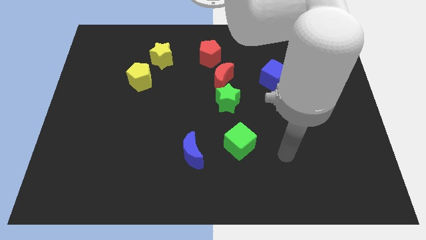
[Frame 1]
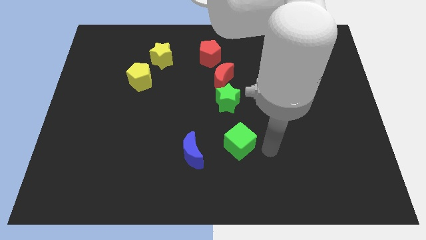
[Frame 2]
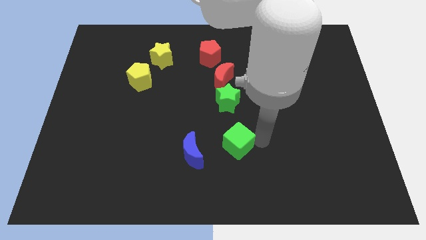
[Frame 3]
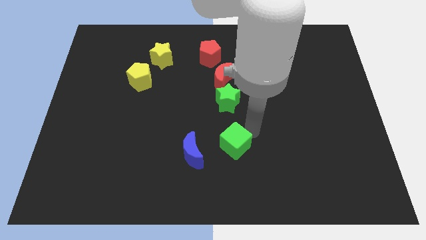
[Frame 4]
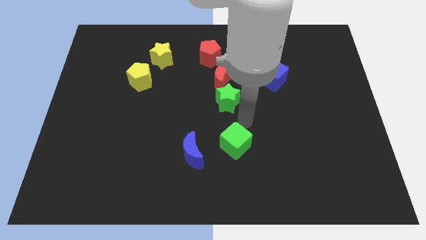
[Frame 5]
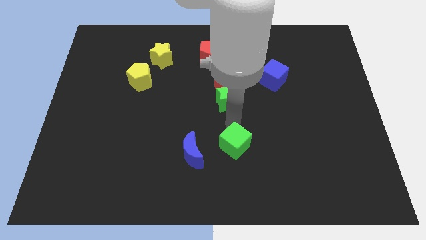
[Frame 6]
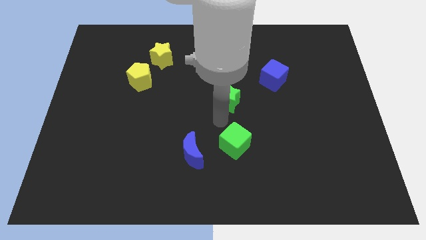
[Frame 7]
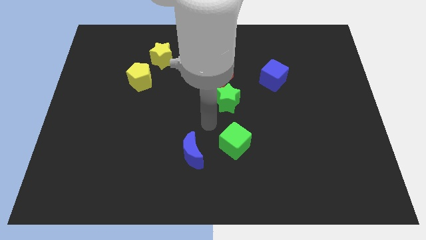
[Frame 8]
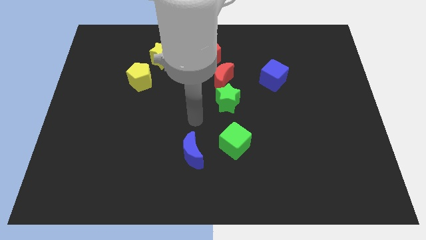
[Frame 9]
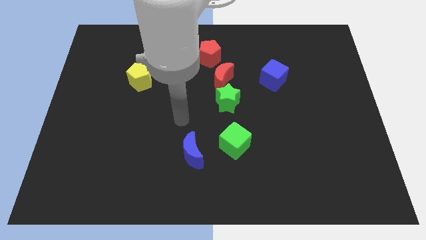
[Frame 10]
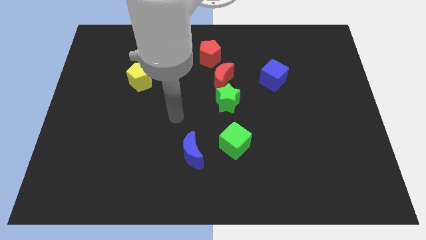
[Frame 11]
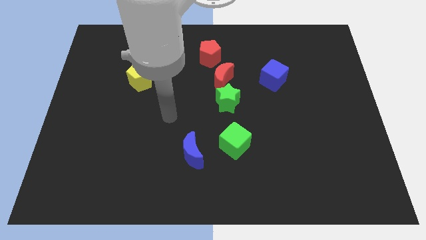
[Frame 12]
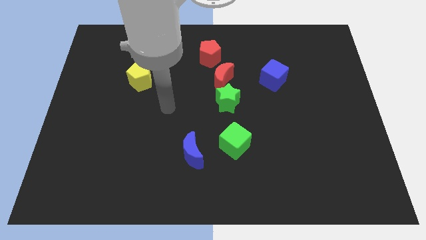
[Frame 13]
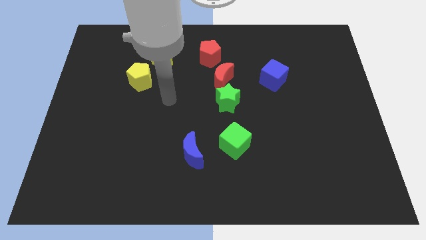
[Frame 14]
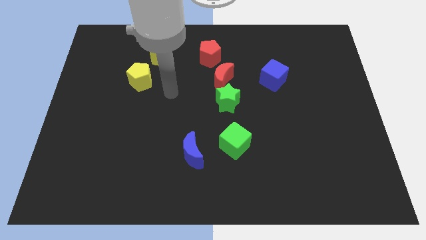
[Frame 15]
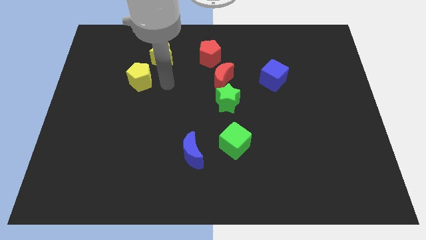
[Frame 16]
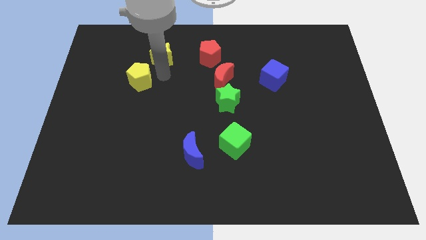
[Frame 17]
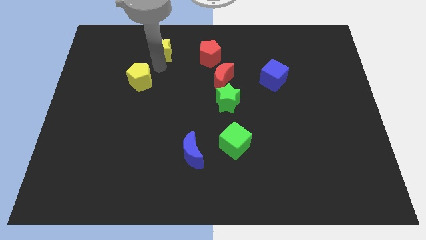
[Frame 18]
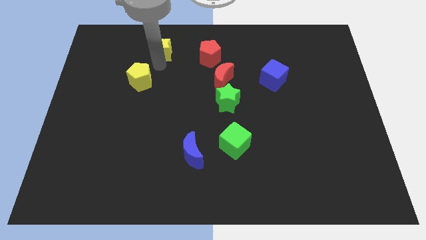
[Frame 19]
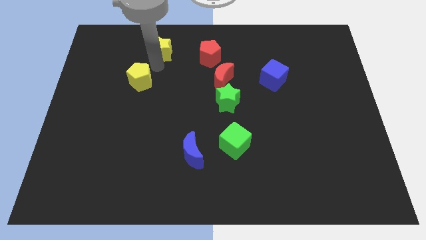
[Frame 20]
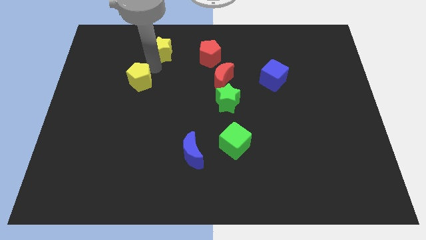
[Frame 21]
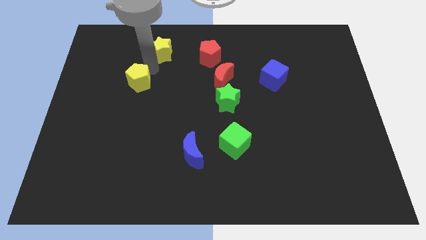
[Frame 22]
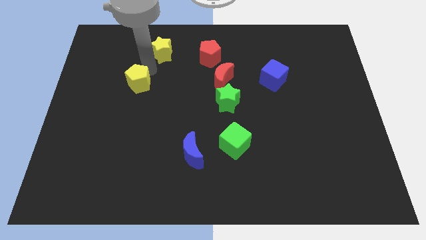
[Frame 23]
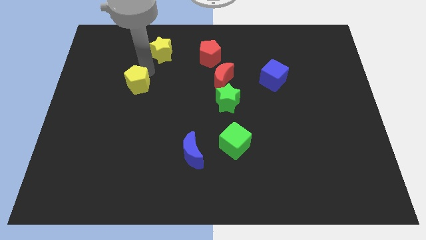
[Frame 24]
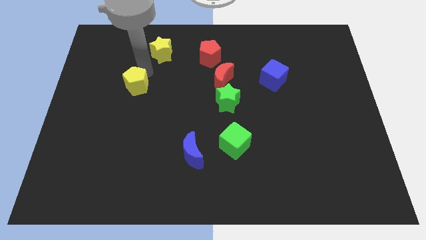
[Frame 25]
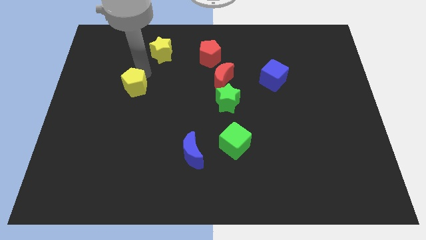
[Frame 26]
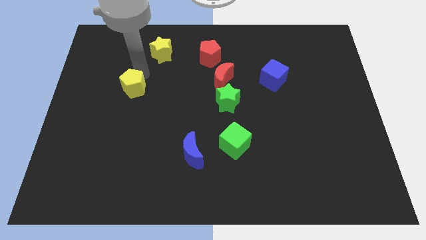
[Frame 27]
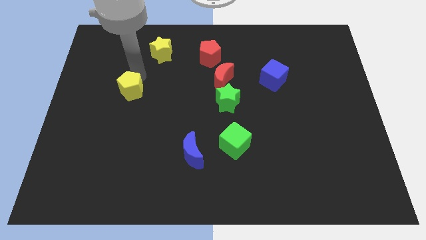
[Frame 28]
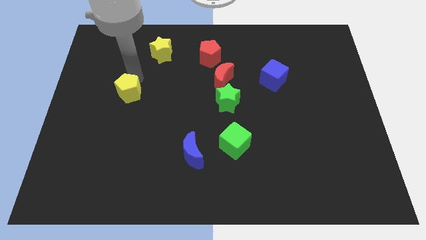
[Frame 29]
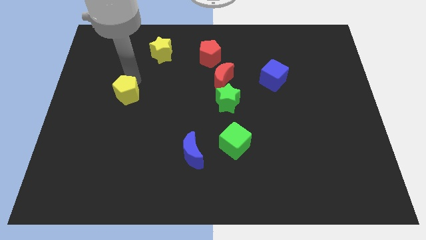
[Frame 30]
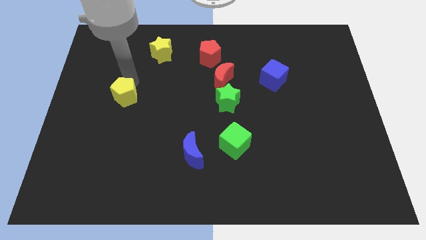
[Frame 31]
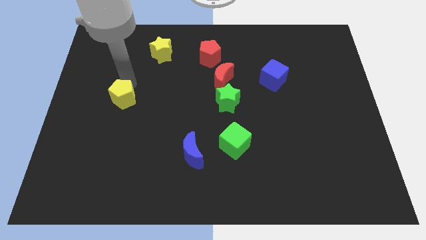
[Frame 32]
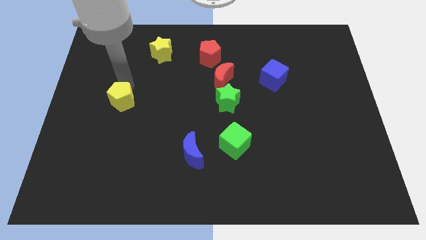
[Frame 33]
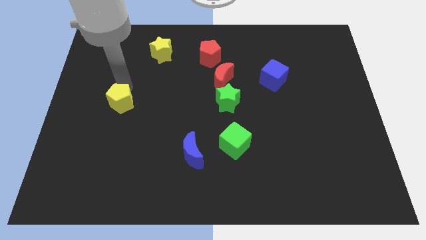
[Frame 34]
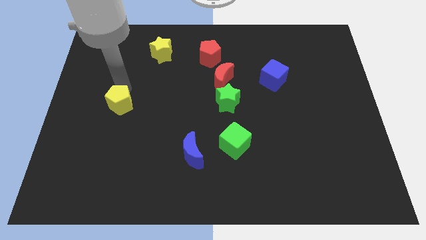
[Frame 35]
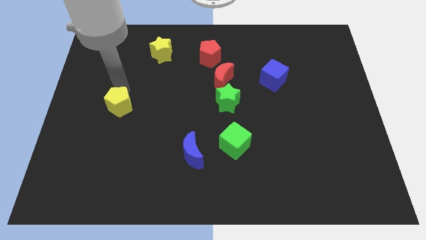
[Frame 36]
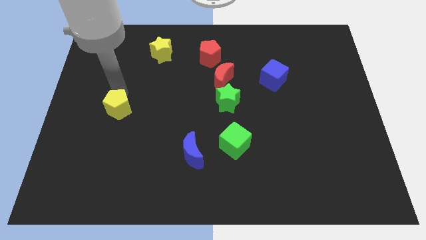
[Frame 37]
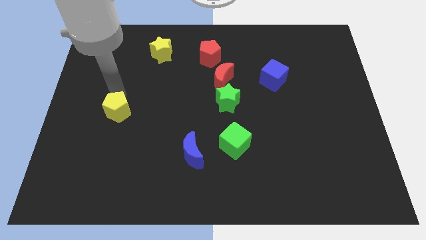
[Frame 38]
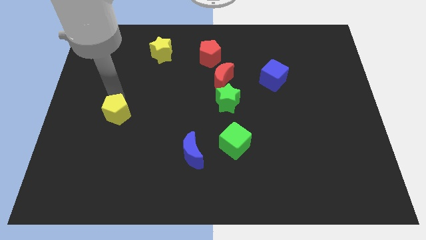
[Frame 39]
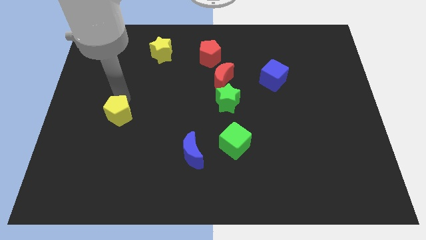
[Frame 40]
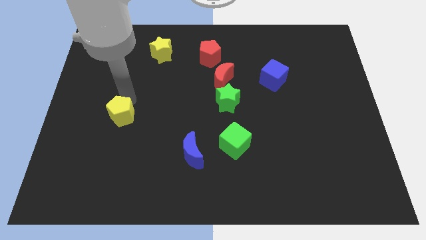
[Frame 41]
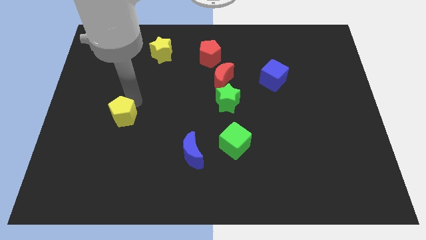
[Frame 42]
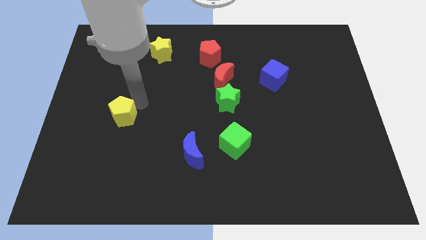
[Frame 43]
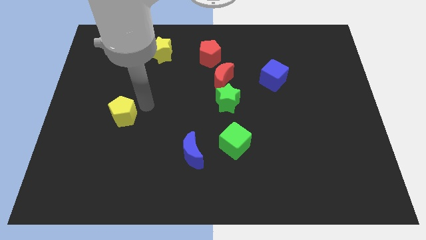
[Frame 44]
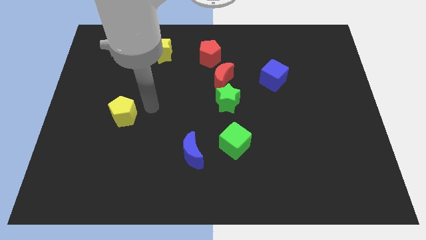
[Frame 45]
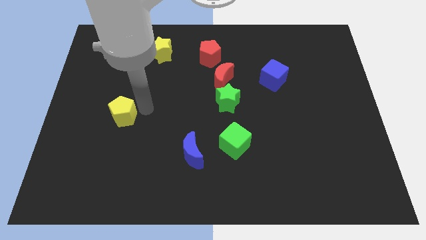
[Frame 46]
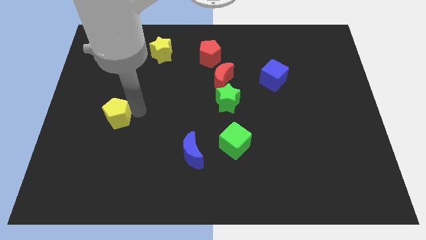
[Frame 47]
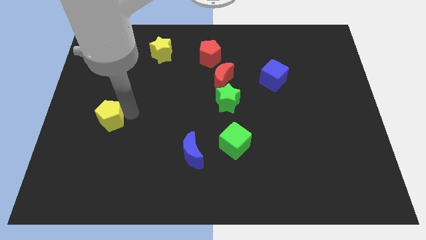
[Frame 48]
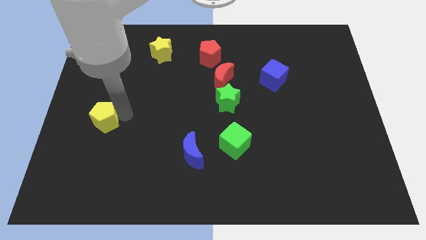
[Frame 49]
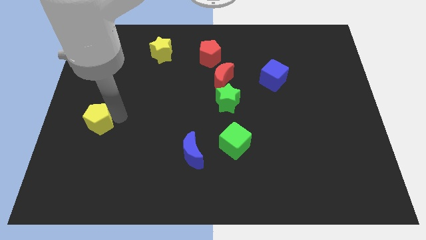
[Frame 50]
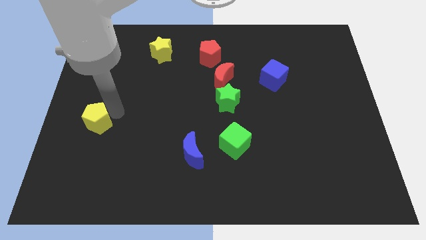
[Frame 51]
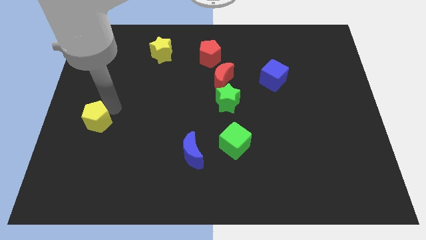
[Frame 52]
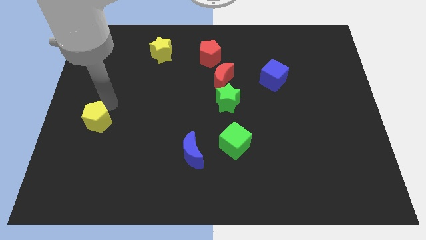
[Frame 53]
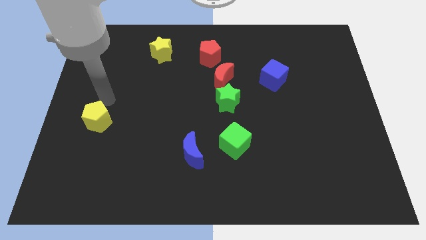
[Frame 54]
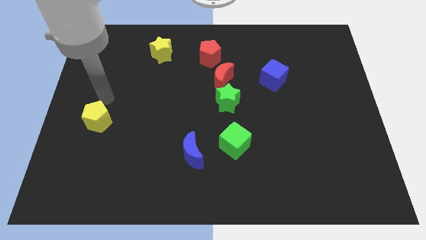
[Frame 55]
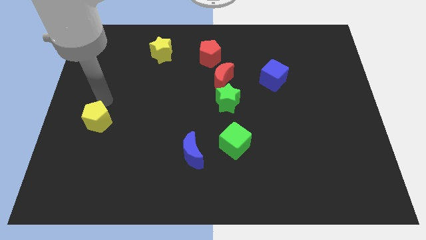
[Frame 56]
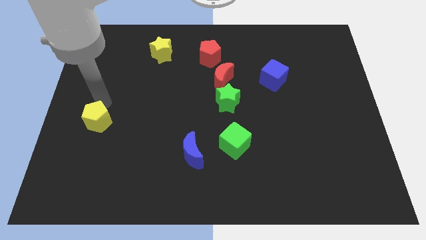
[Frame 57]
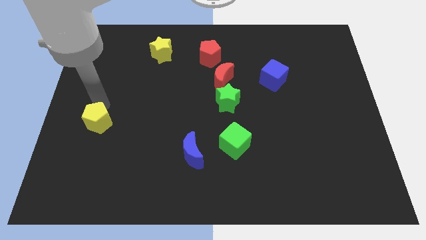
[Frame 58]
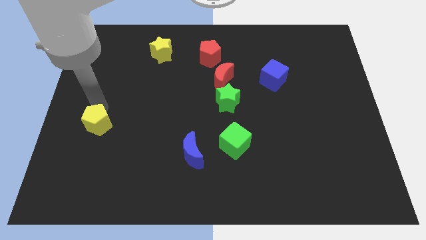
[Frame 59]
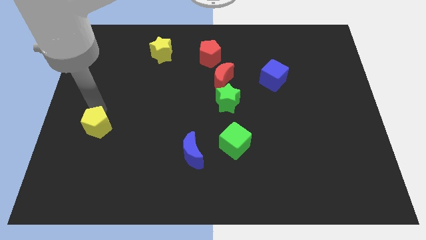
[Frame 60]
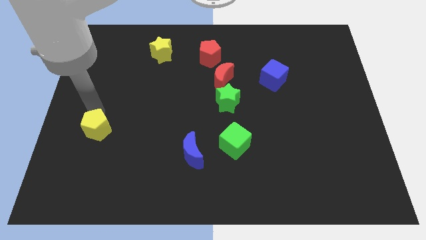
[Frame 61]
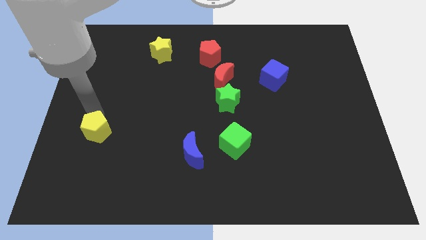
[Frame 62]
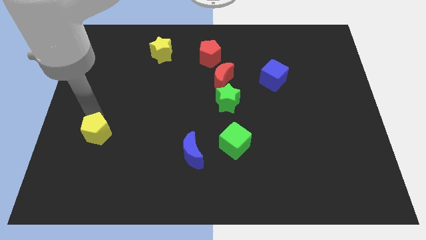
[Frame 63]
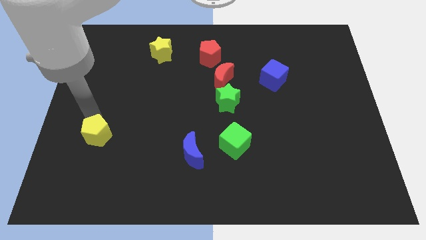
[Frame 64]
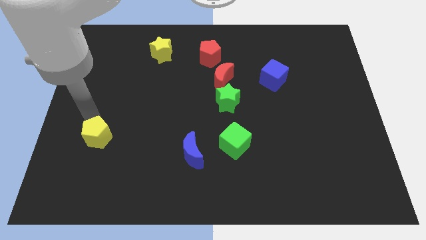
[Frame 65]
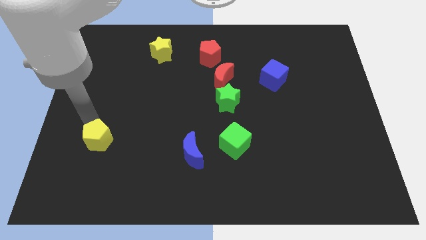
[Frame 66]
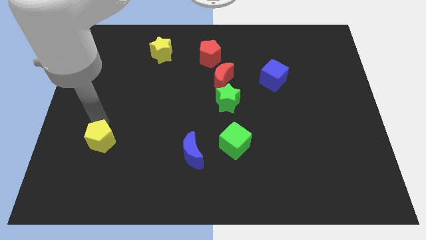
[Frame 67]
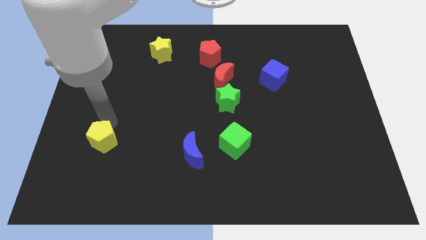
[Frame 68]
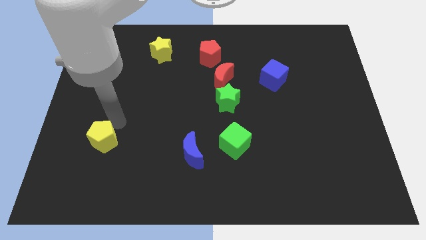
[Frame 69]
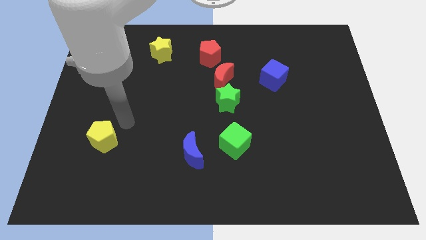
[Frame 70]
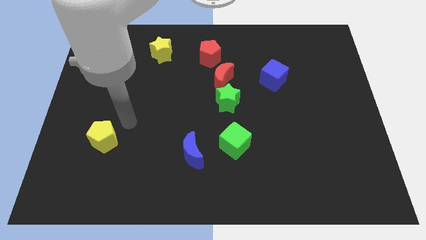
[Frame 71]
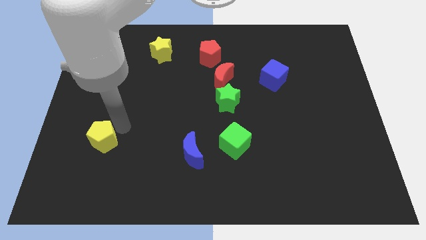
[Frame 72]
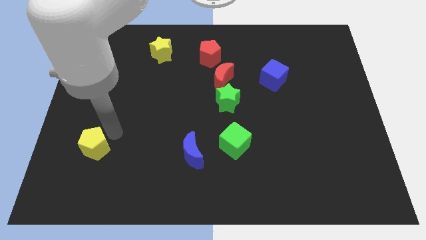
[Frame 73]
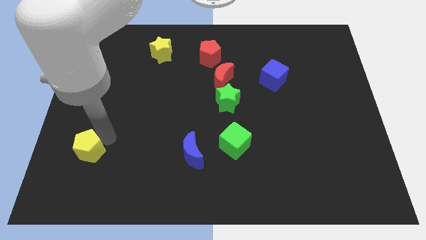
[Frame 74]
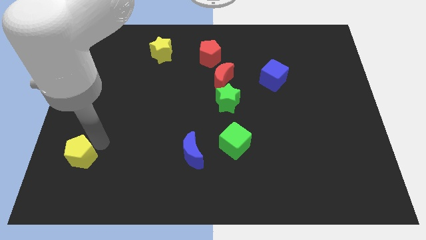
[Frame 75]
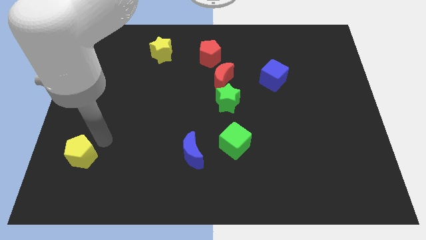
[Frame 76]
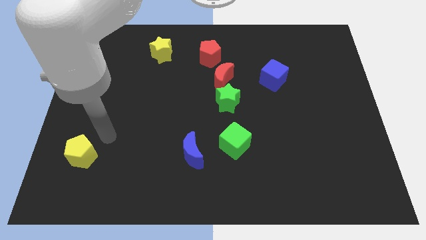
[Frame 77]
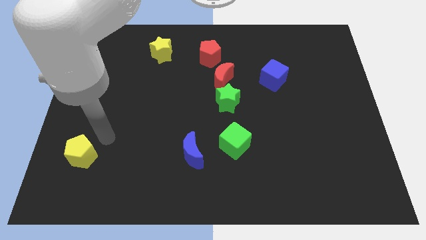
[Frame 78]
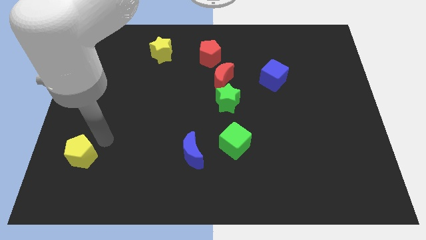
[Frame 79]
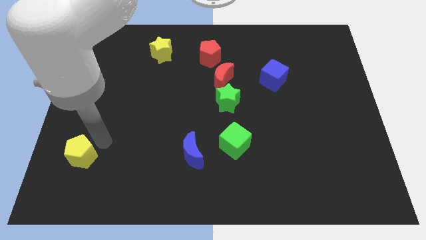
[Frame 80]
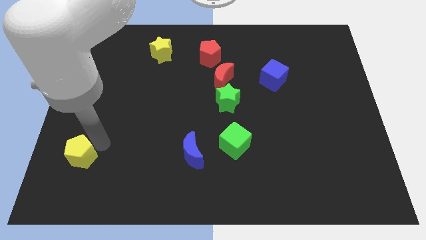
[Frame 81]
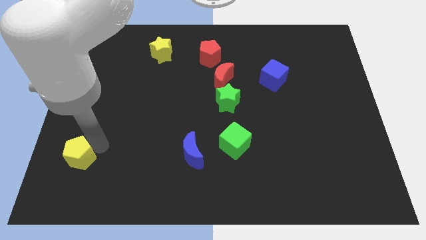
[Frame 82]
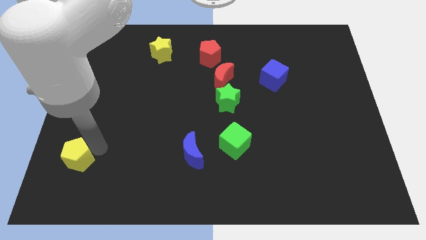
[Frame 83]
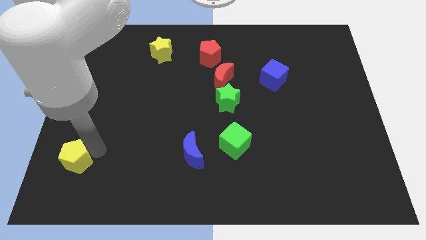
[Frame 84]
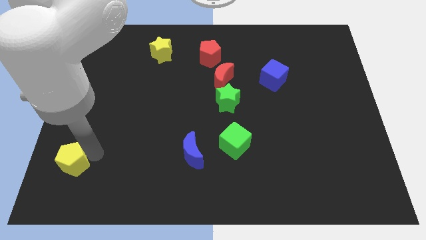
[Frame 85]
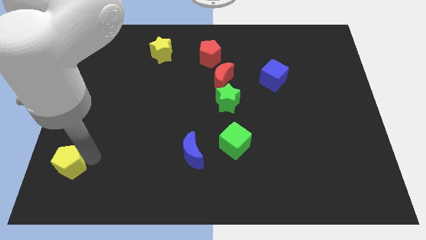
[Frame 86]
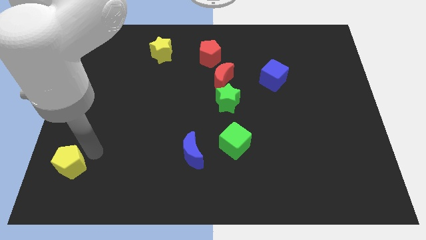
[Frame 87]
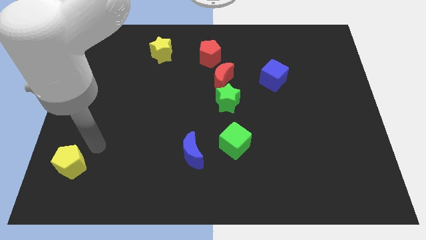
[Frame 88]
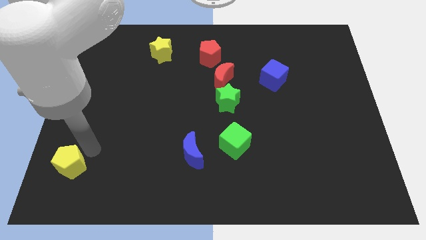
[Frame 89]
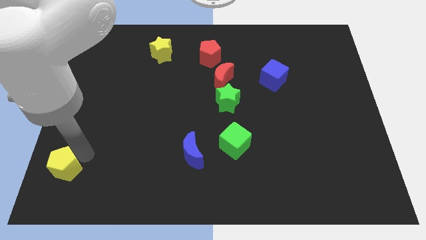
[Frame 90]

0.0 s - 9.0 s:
slide the yellow pentagon to the bottom left corner
